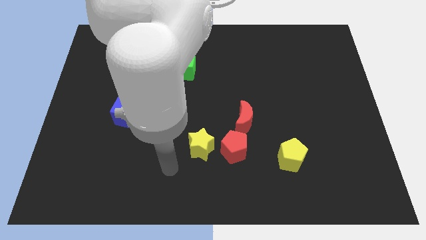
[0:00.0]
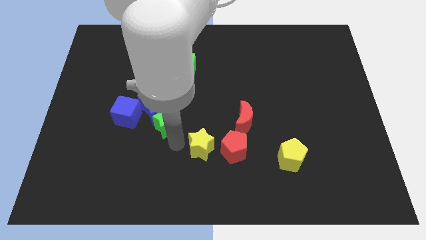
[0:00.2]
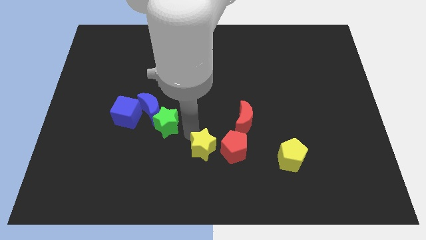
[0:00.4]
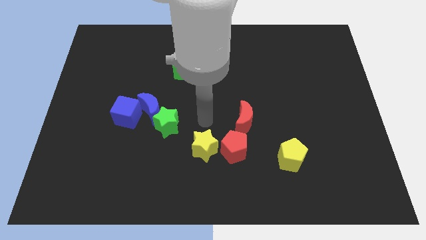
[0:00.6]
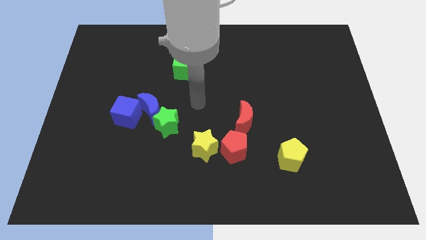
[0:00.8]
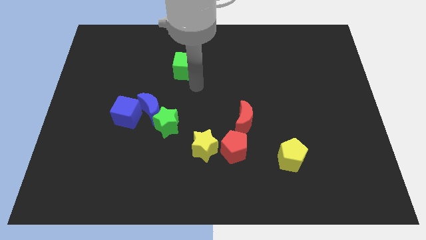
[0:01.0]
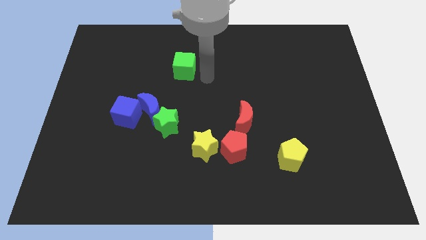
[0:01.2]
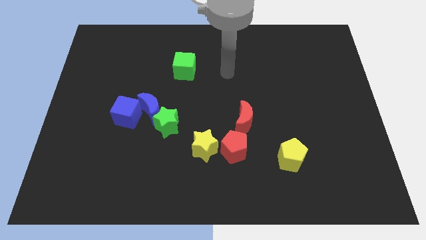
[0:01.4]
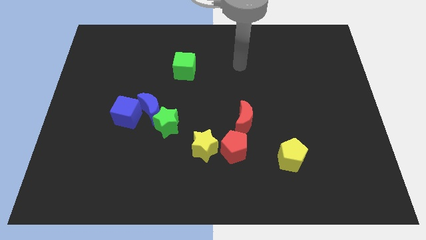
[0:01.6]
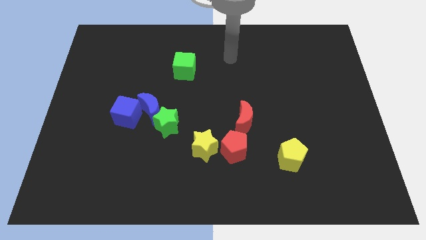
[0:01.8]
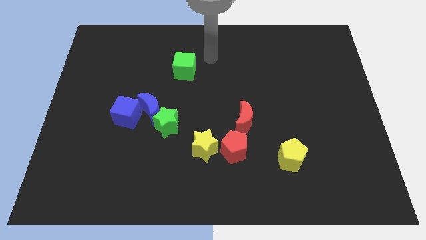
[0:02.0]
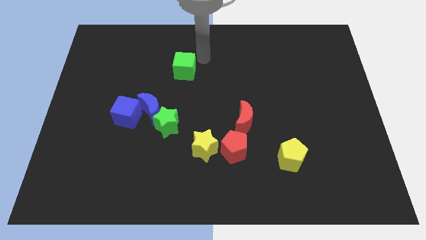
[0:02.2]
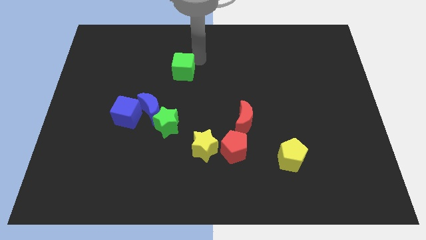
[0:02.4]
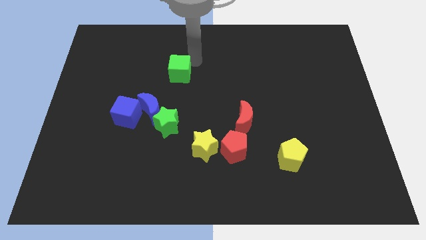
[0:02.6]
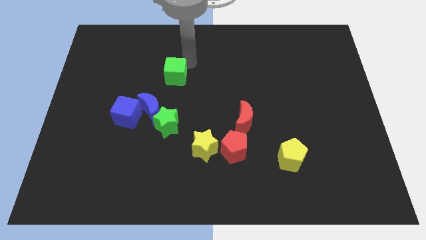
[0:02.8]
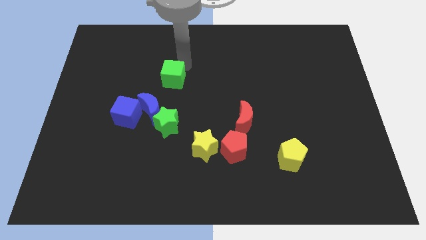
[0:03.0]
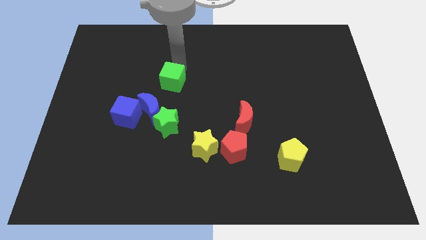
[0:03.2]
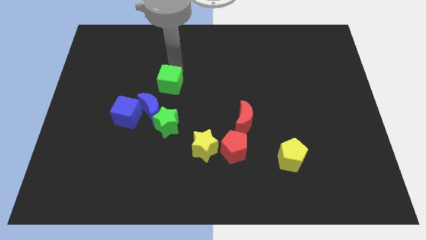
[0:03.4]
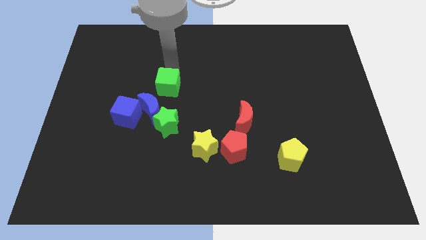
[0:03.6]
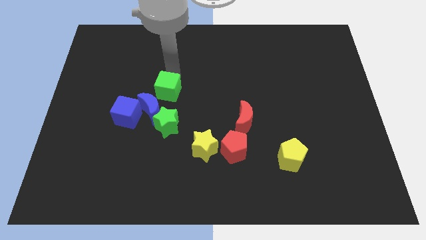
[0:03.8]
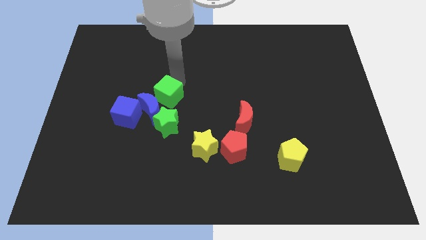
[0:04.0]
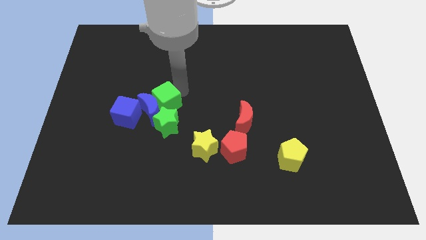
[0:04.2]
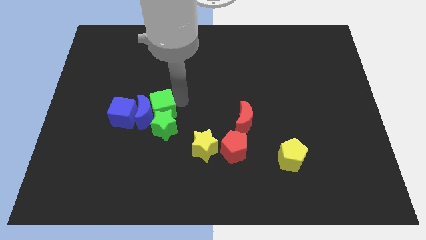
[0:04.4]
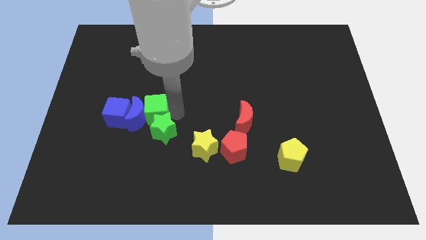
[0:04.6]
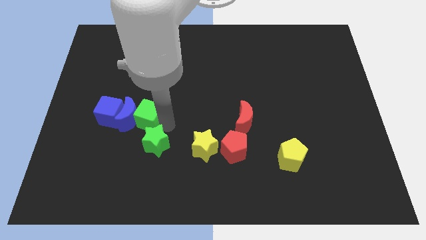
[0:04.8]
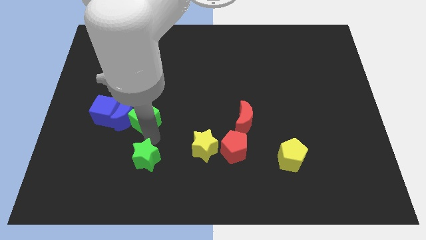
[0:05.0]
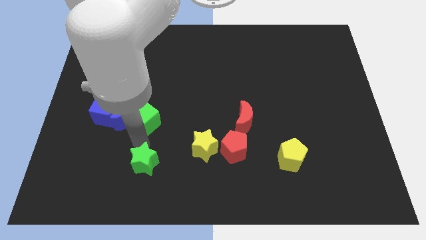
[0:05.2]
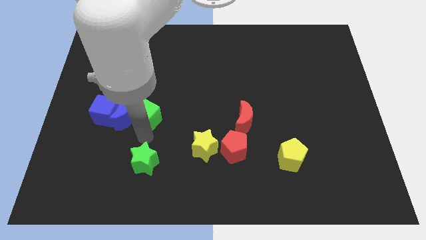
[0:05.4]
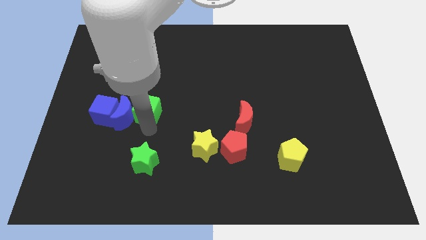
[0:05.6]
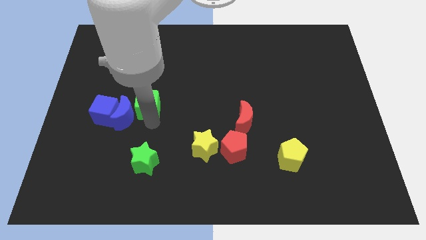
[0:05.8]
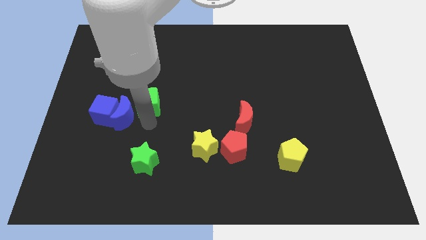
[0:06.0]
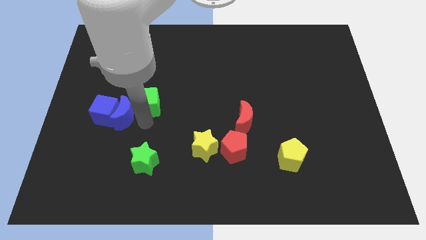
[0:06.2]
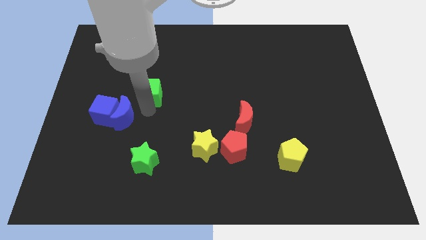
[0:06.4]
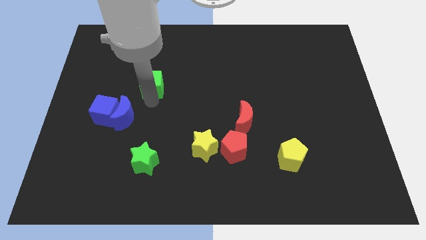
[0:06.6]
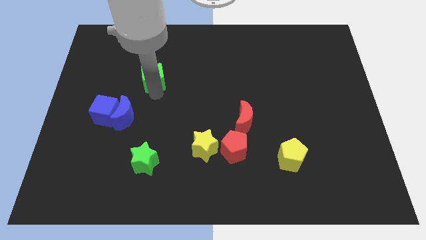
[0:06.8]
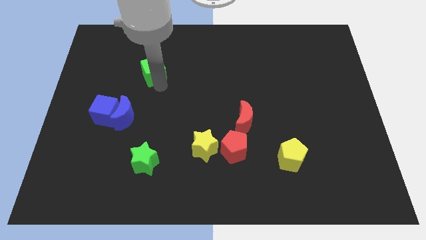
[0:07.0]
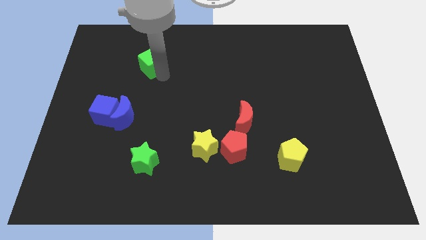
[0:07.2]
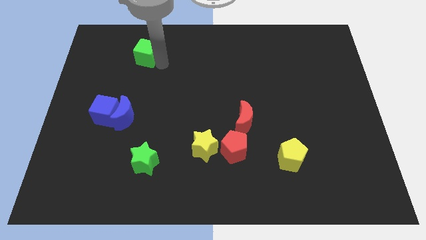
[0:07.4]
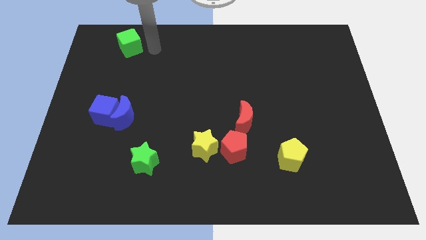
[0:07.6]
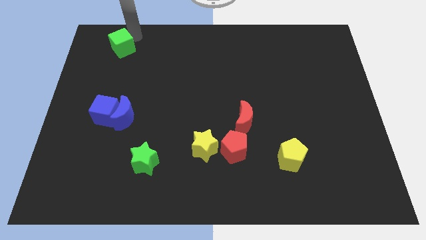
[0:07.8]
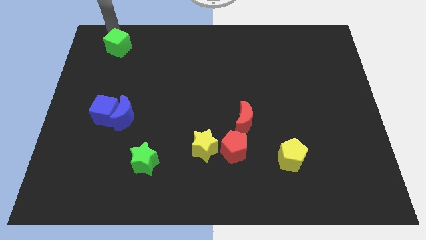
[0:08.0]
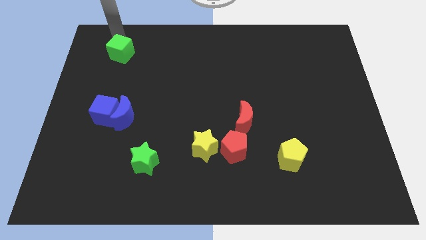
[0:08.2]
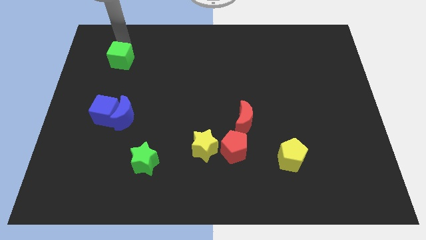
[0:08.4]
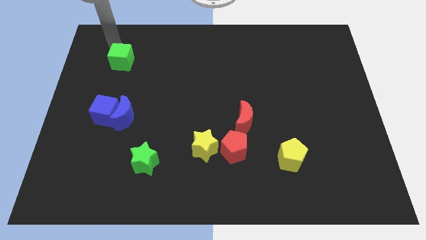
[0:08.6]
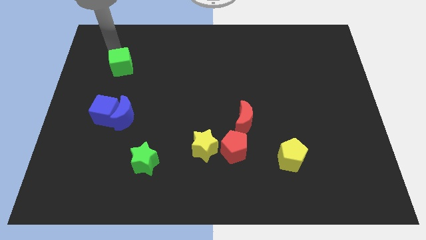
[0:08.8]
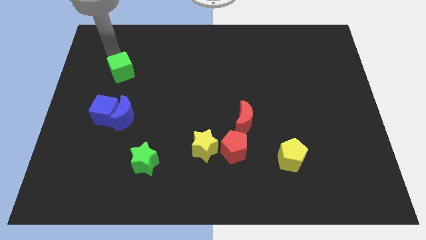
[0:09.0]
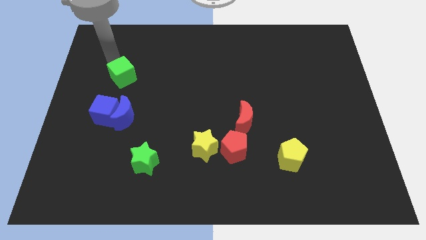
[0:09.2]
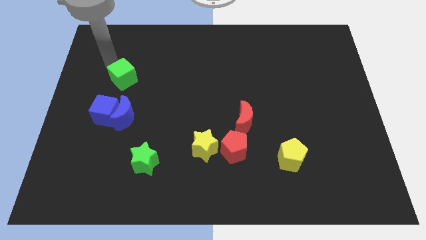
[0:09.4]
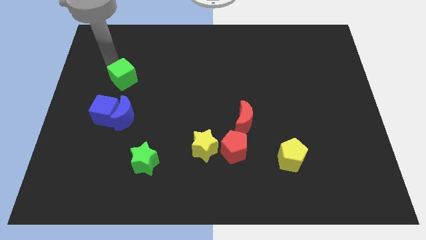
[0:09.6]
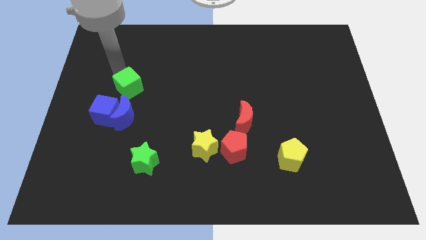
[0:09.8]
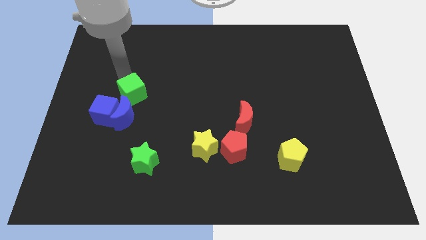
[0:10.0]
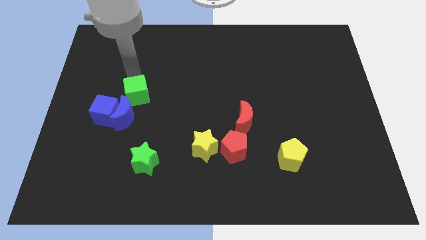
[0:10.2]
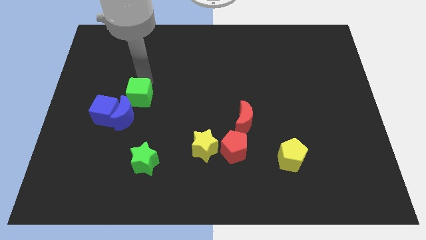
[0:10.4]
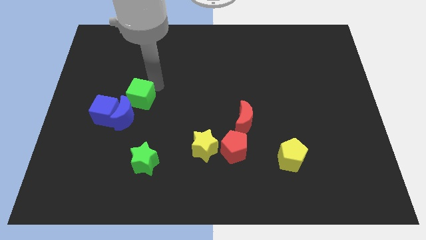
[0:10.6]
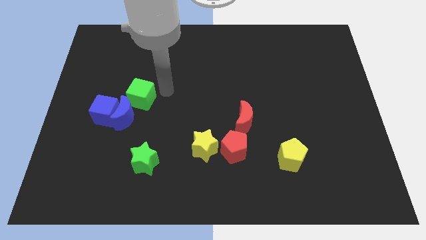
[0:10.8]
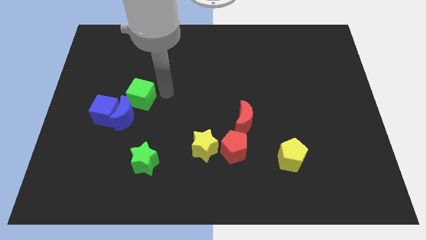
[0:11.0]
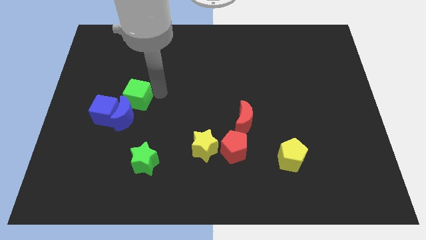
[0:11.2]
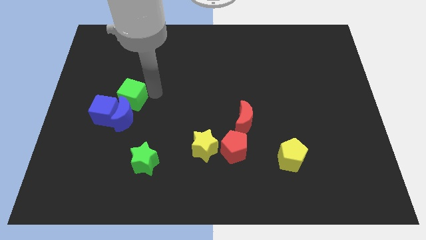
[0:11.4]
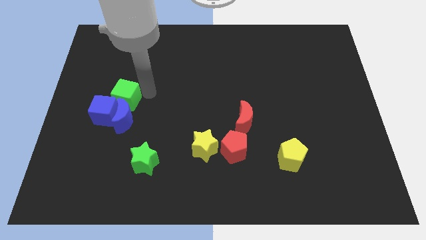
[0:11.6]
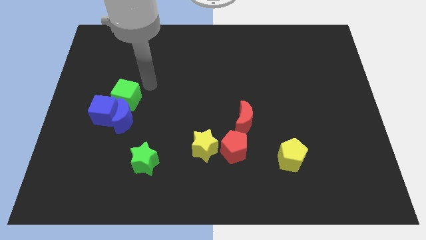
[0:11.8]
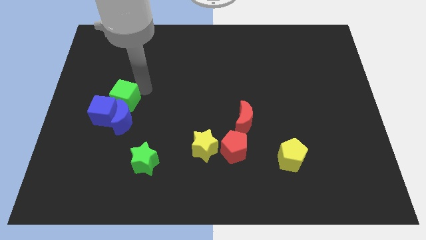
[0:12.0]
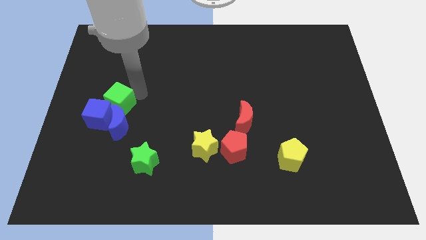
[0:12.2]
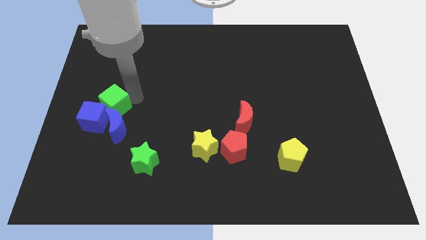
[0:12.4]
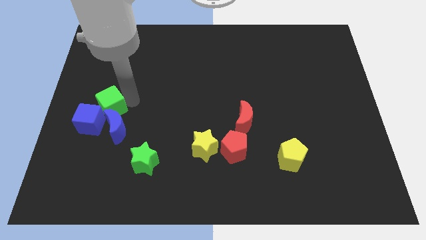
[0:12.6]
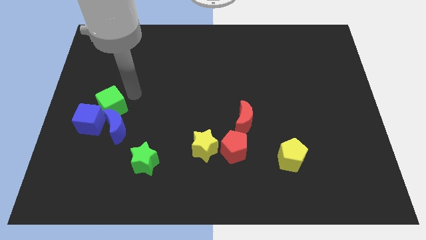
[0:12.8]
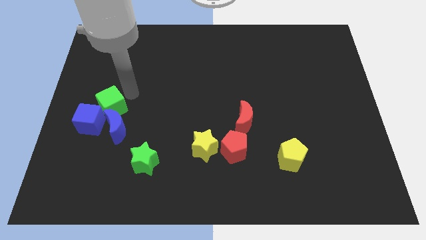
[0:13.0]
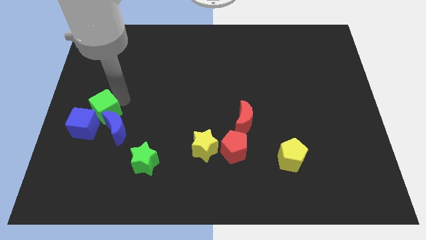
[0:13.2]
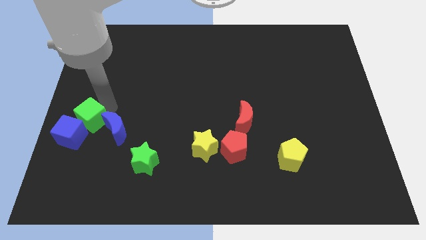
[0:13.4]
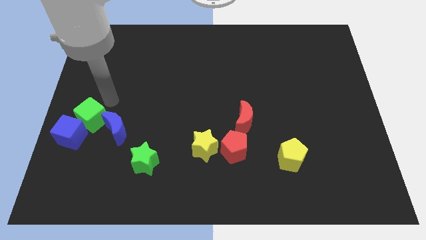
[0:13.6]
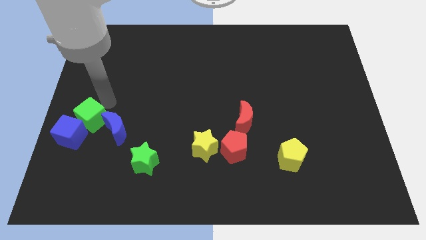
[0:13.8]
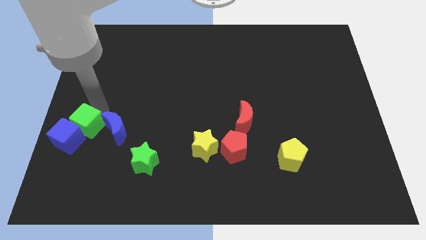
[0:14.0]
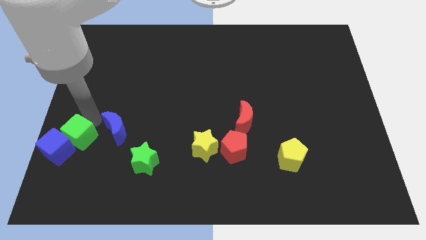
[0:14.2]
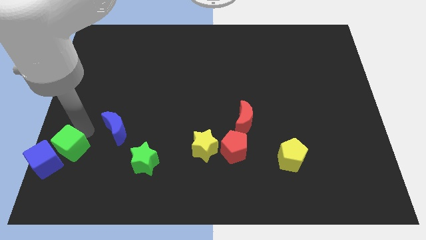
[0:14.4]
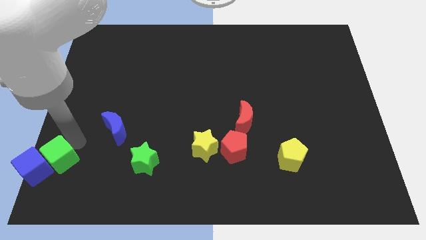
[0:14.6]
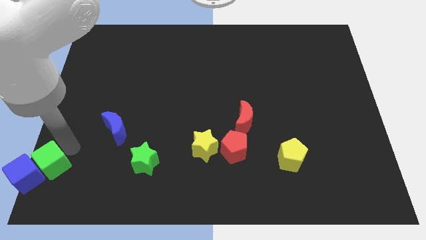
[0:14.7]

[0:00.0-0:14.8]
push the green cube to the bottom left of the board
